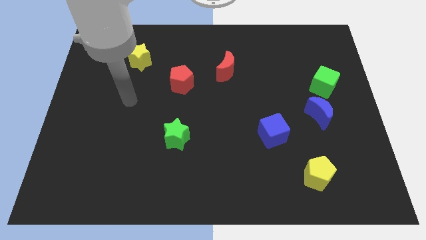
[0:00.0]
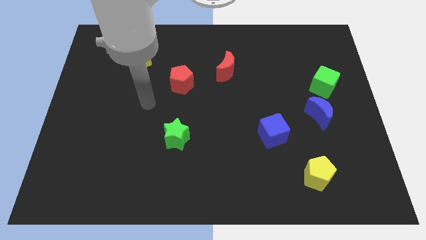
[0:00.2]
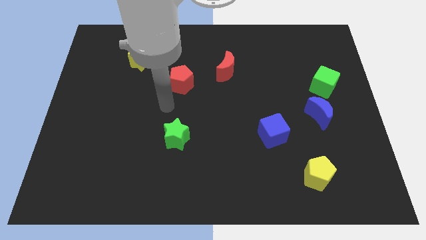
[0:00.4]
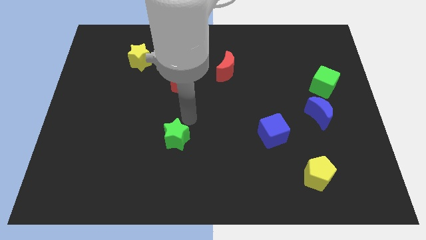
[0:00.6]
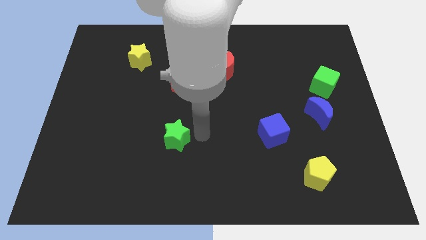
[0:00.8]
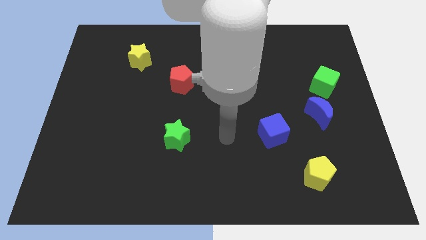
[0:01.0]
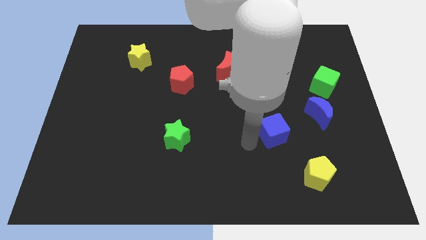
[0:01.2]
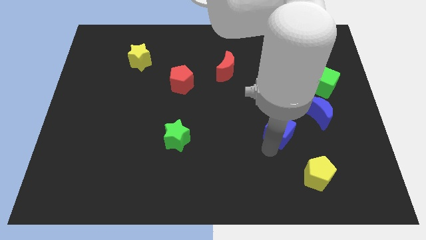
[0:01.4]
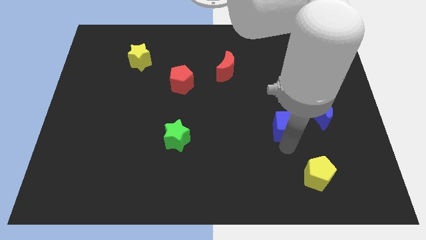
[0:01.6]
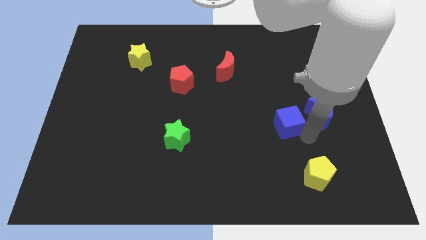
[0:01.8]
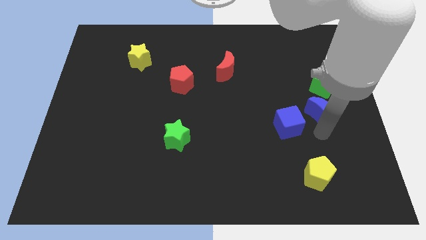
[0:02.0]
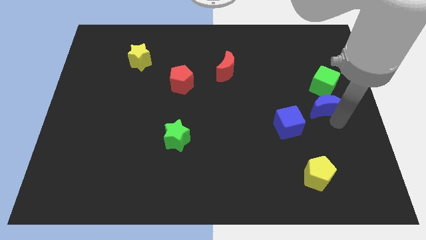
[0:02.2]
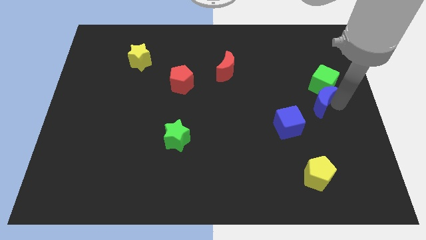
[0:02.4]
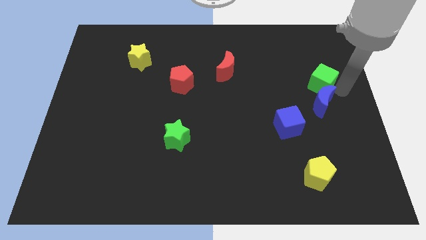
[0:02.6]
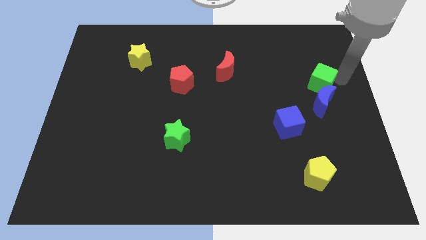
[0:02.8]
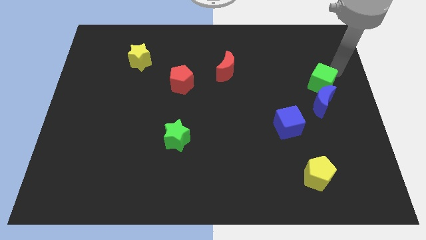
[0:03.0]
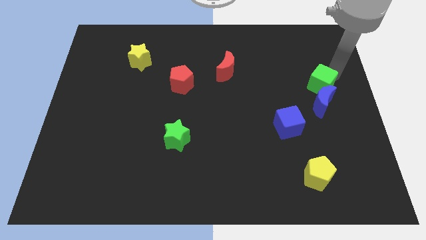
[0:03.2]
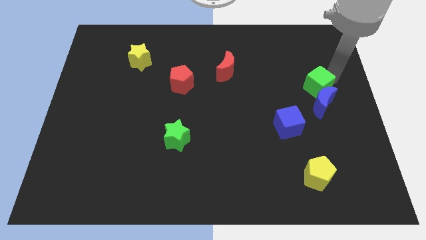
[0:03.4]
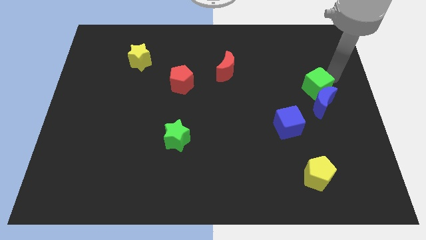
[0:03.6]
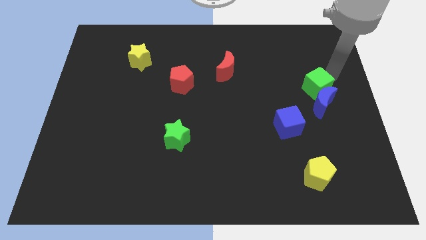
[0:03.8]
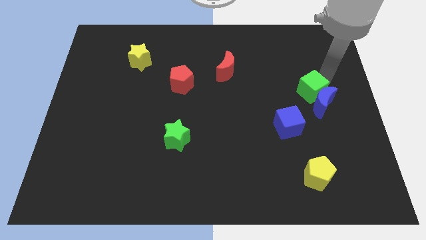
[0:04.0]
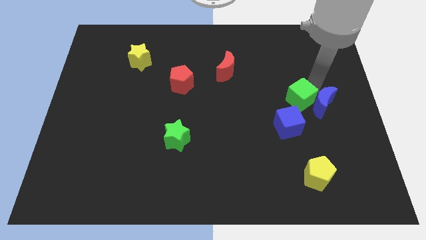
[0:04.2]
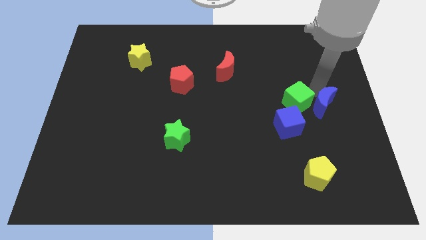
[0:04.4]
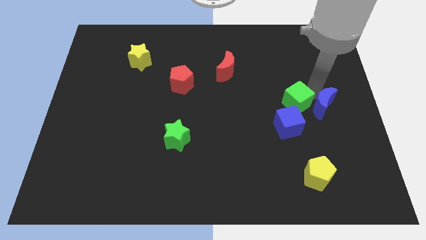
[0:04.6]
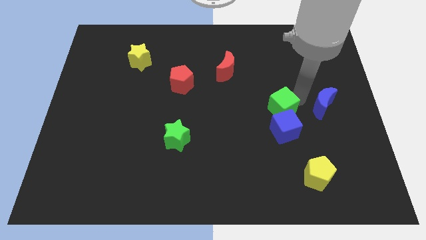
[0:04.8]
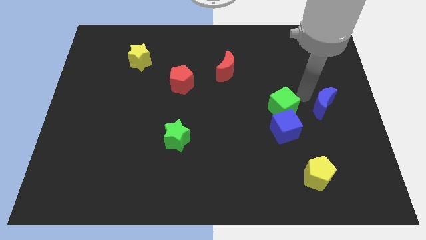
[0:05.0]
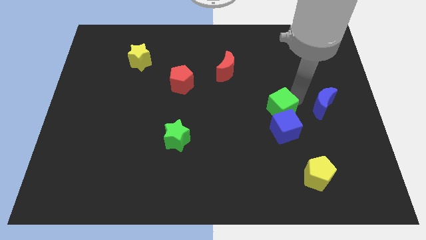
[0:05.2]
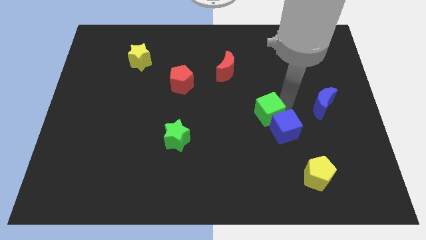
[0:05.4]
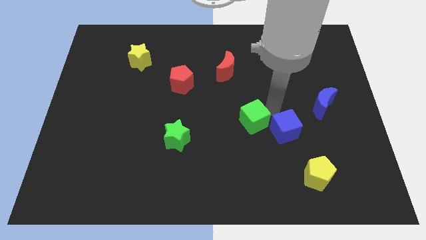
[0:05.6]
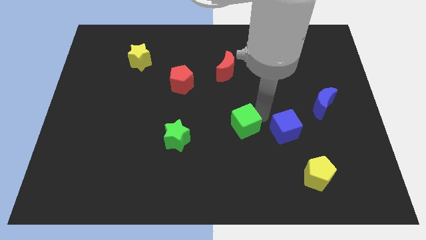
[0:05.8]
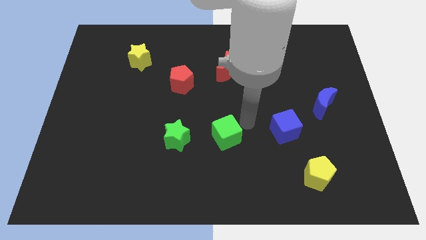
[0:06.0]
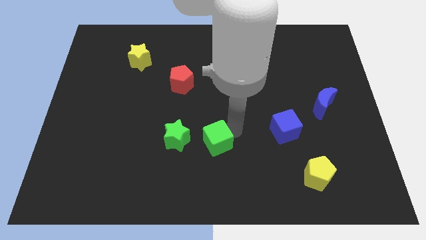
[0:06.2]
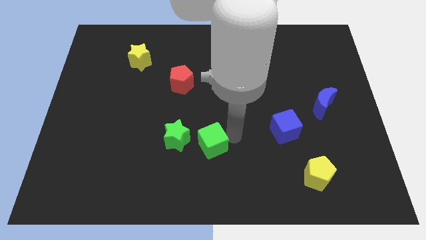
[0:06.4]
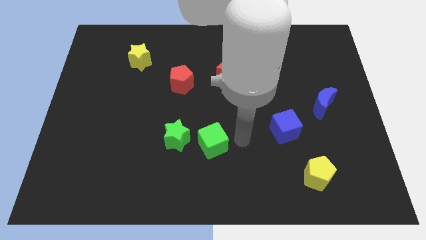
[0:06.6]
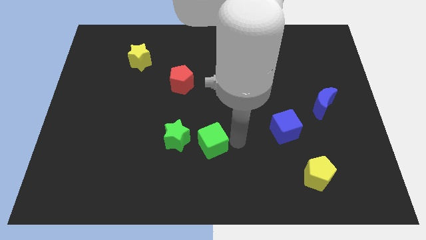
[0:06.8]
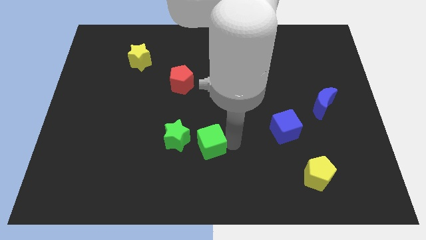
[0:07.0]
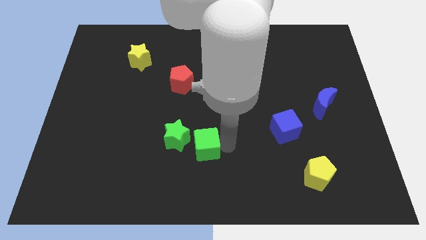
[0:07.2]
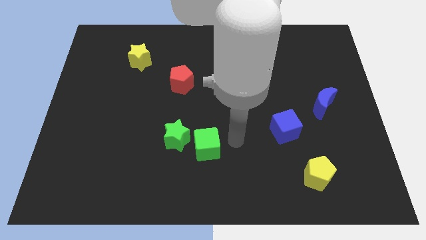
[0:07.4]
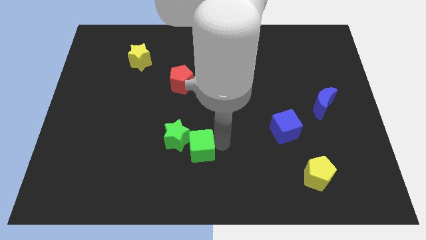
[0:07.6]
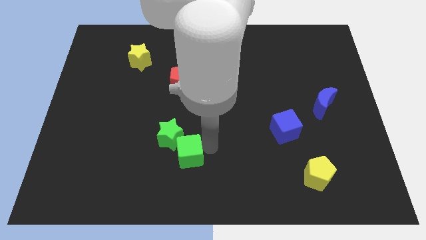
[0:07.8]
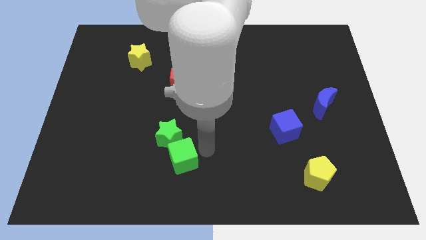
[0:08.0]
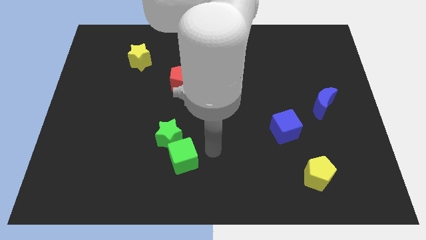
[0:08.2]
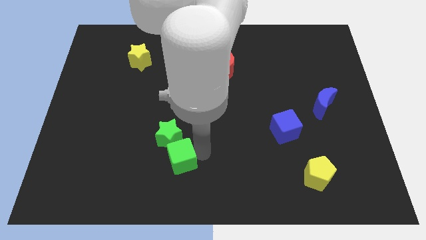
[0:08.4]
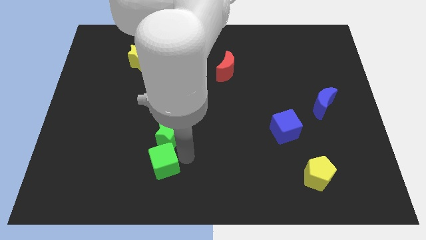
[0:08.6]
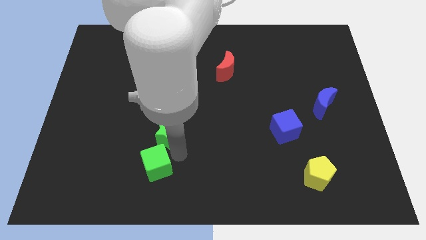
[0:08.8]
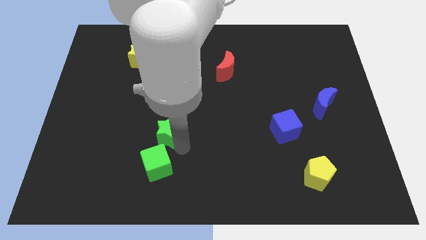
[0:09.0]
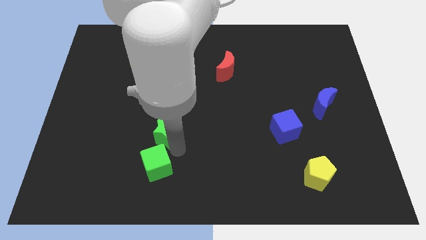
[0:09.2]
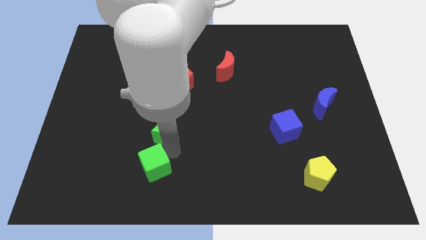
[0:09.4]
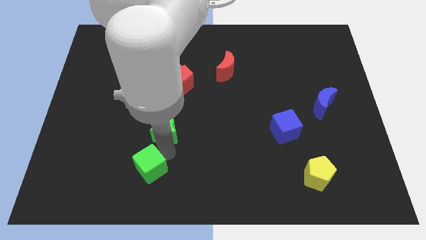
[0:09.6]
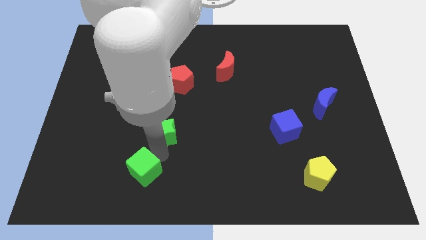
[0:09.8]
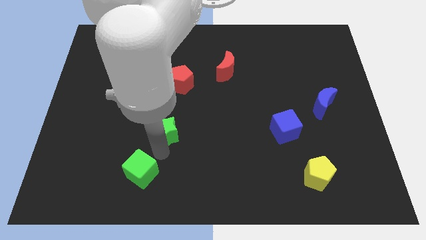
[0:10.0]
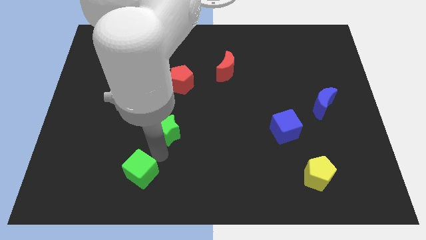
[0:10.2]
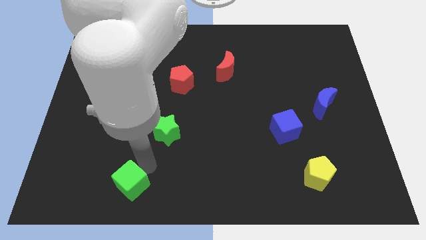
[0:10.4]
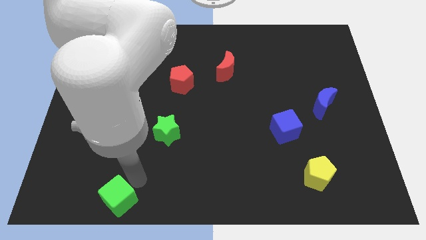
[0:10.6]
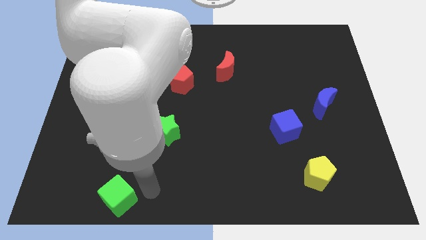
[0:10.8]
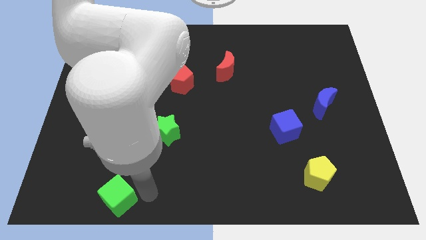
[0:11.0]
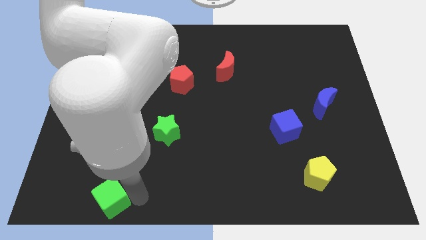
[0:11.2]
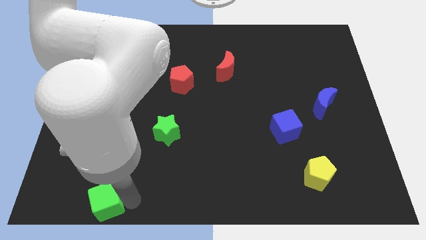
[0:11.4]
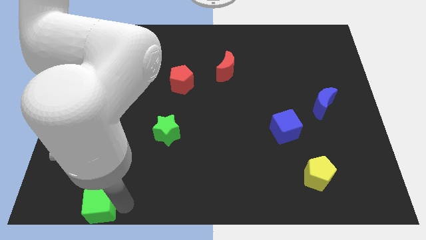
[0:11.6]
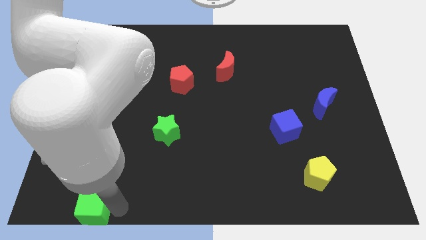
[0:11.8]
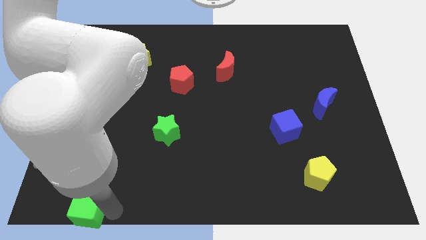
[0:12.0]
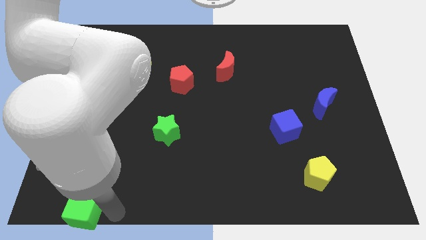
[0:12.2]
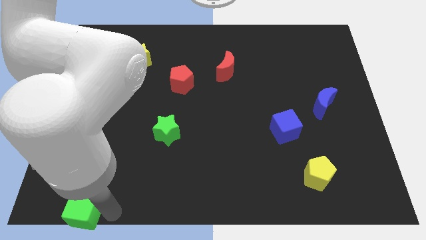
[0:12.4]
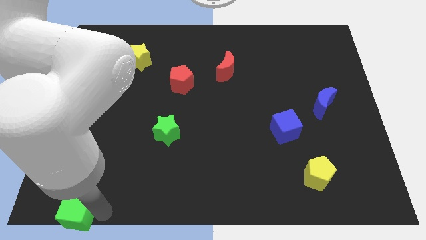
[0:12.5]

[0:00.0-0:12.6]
slide the green cube to the bottom left corner

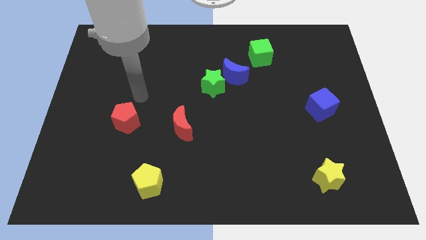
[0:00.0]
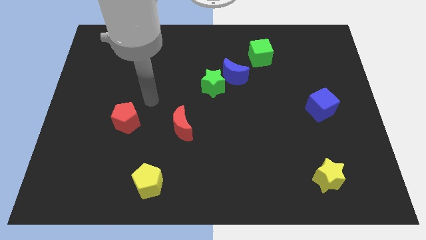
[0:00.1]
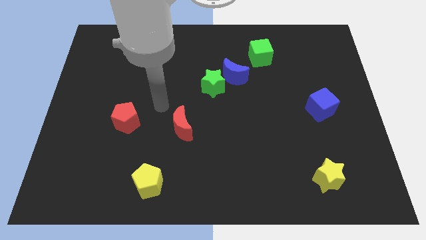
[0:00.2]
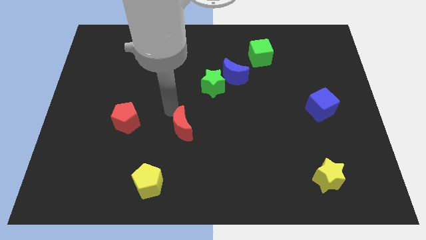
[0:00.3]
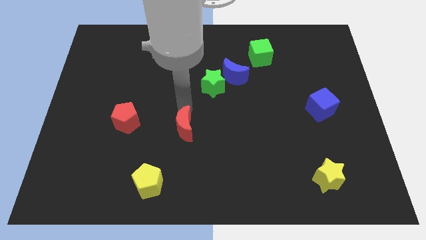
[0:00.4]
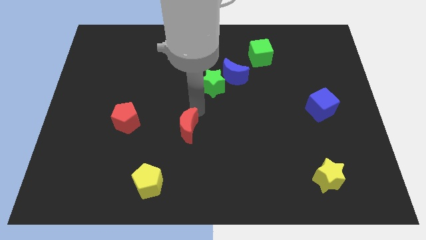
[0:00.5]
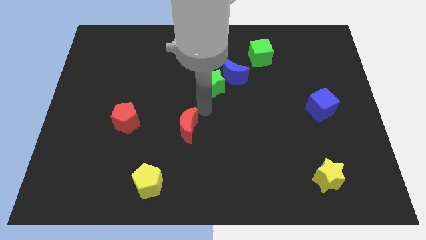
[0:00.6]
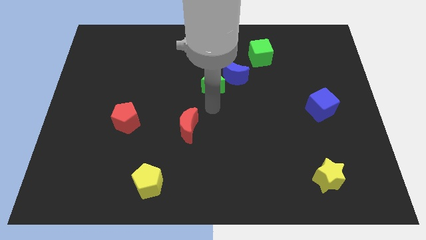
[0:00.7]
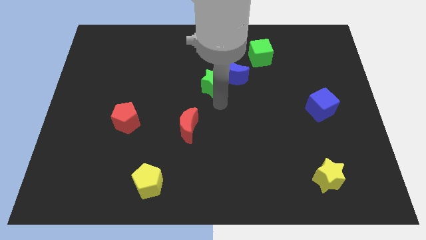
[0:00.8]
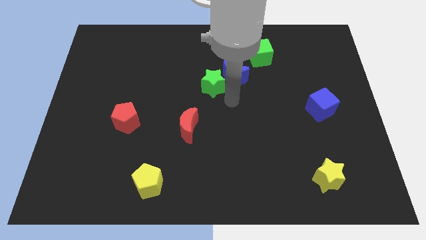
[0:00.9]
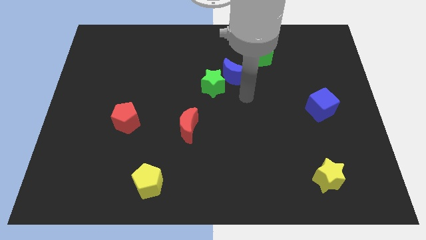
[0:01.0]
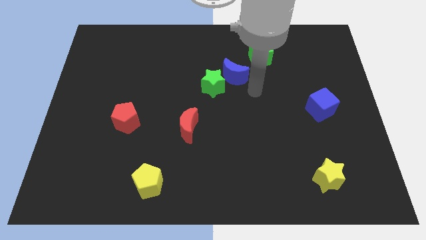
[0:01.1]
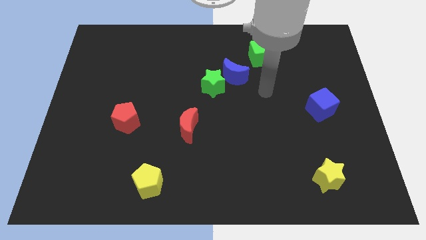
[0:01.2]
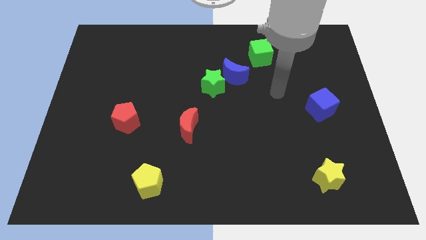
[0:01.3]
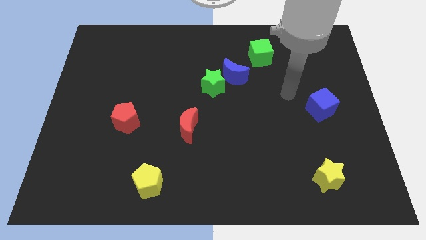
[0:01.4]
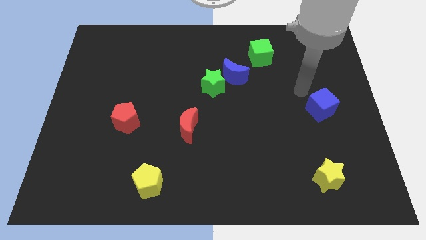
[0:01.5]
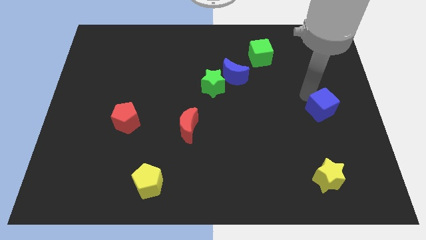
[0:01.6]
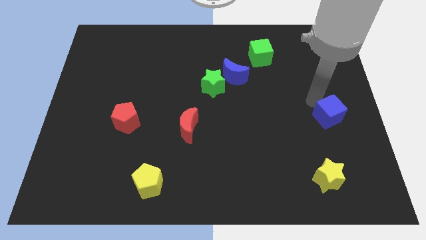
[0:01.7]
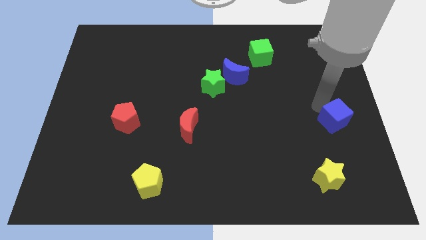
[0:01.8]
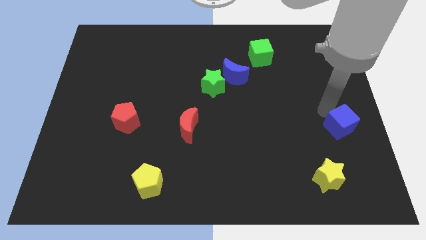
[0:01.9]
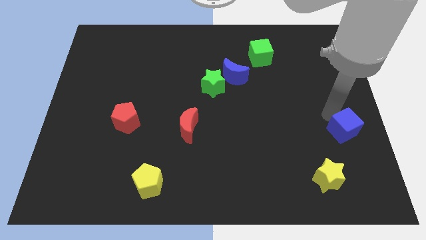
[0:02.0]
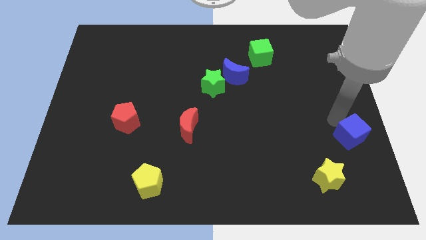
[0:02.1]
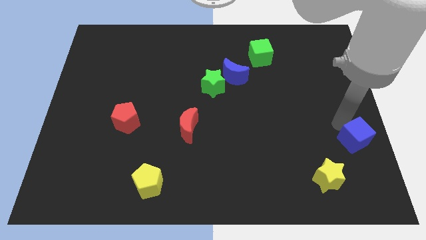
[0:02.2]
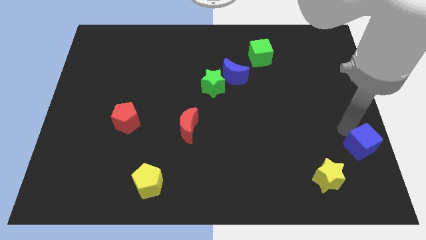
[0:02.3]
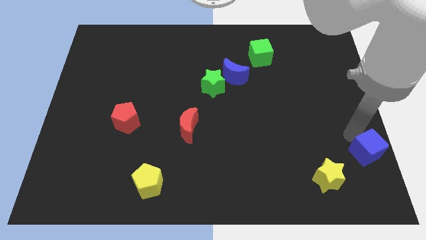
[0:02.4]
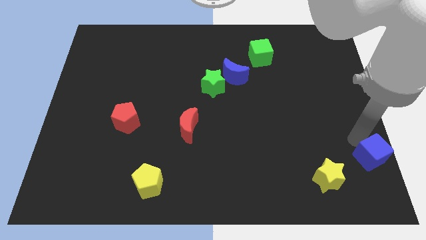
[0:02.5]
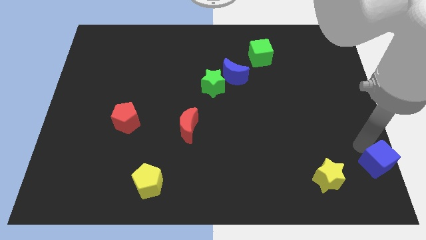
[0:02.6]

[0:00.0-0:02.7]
put the blue cube to the bottom right
